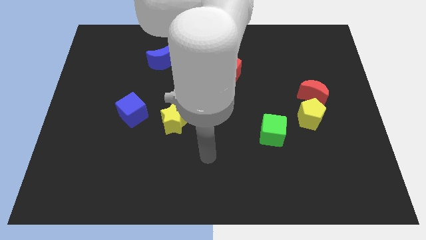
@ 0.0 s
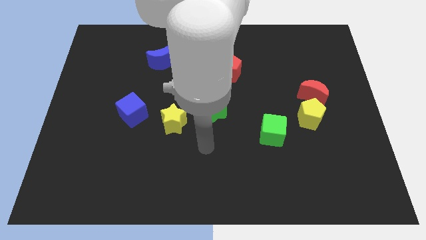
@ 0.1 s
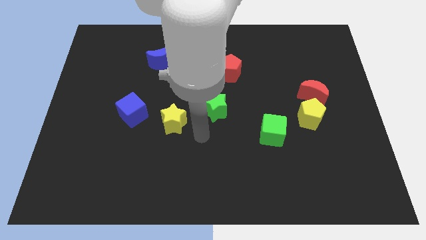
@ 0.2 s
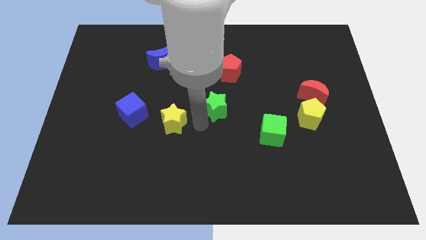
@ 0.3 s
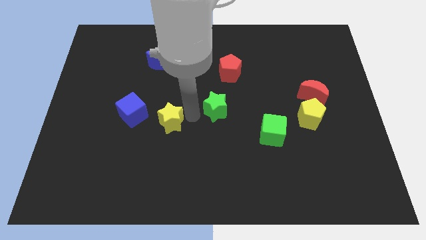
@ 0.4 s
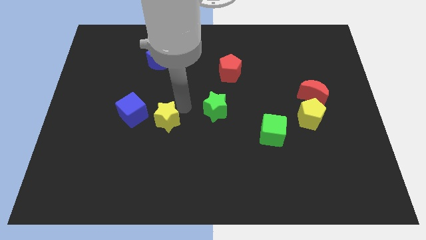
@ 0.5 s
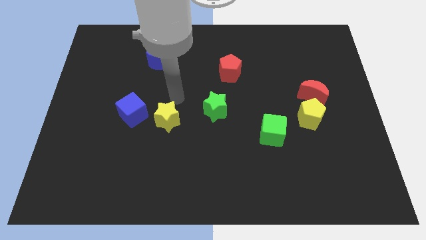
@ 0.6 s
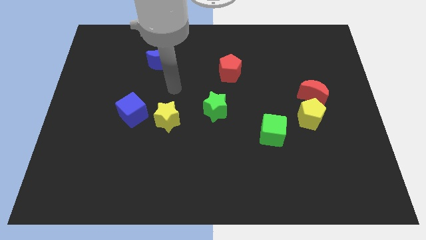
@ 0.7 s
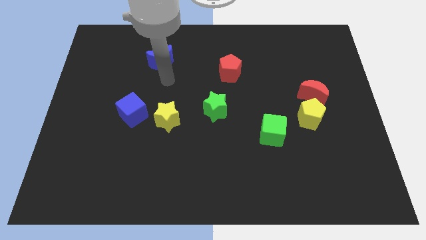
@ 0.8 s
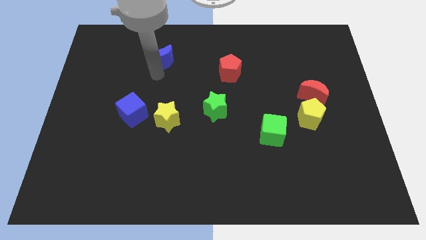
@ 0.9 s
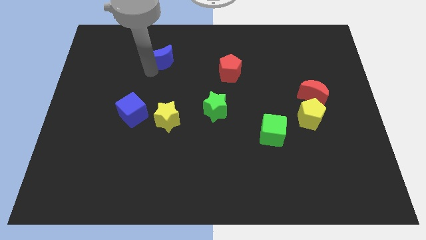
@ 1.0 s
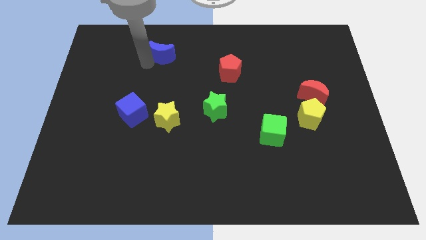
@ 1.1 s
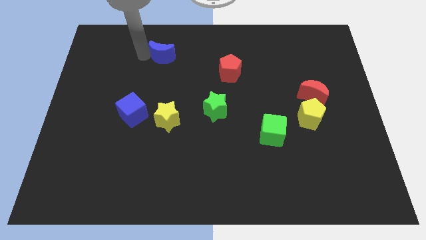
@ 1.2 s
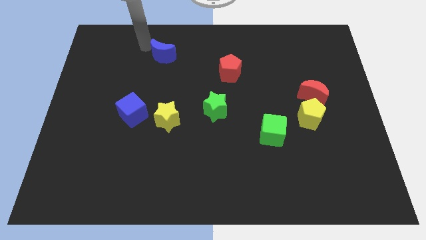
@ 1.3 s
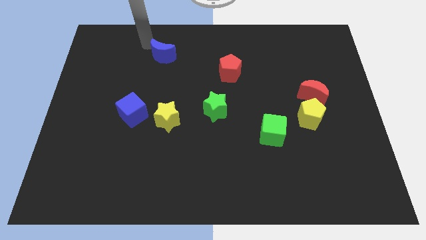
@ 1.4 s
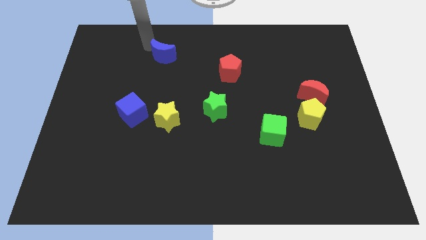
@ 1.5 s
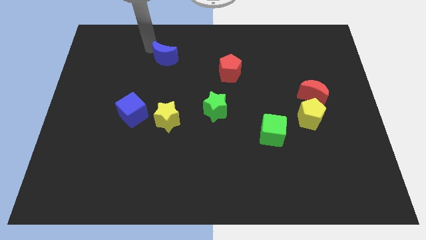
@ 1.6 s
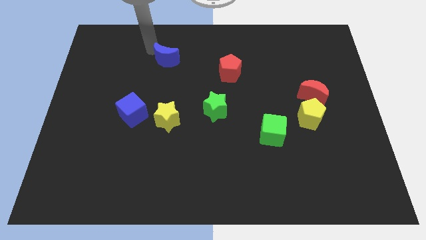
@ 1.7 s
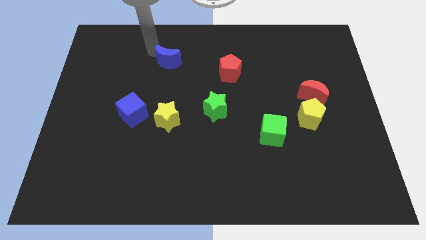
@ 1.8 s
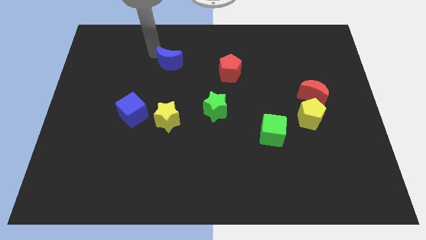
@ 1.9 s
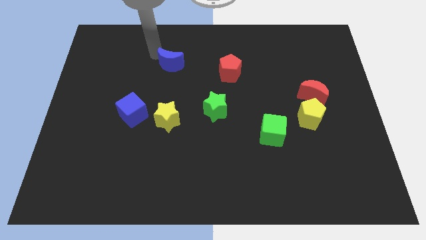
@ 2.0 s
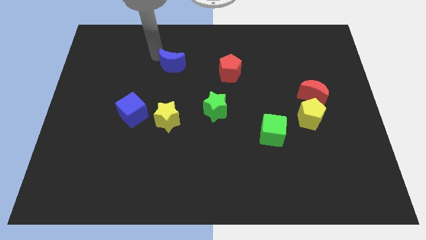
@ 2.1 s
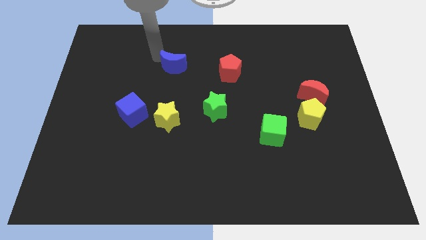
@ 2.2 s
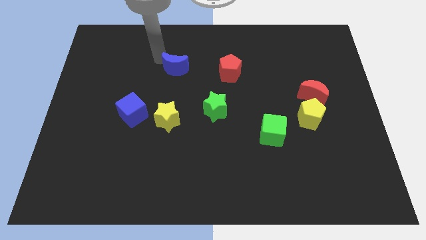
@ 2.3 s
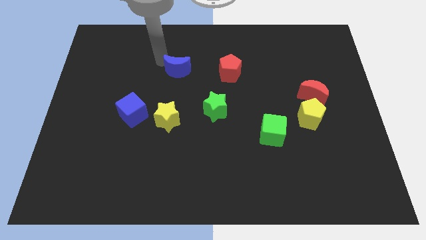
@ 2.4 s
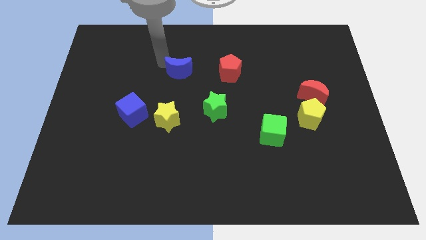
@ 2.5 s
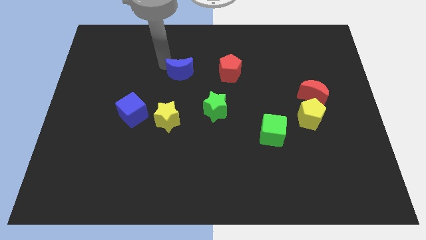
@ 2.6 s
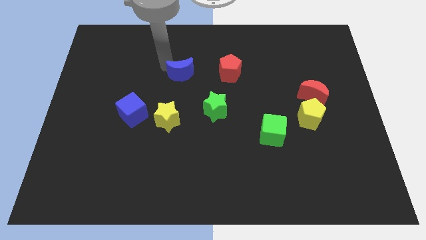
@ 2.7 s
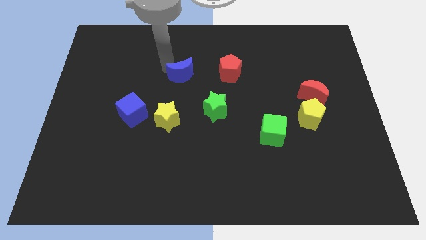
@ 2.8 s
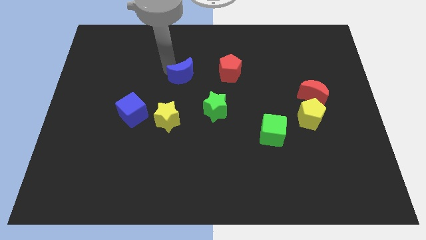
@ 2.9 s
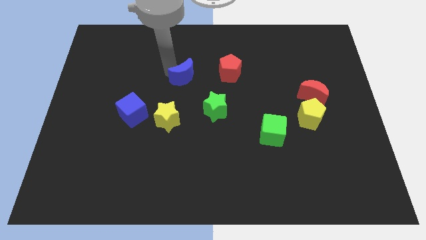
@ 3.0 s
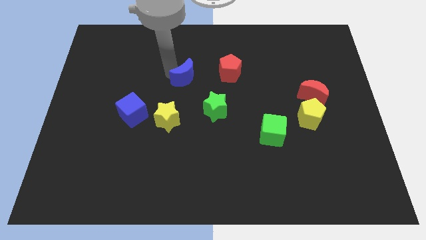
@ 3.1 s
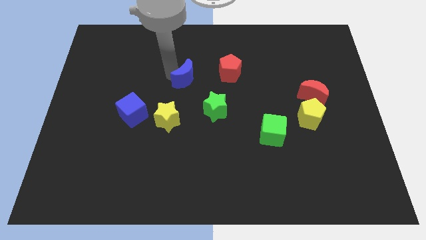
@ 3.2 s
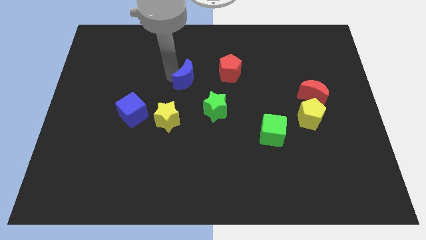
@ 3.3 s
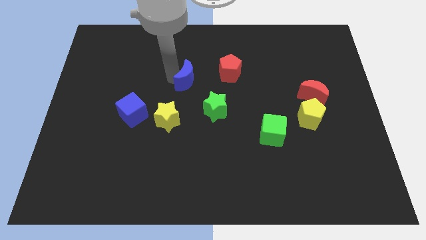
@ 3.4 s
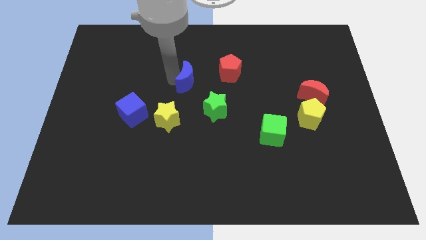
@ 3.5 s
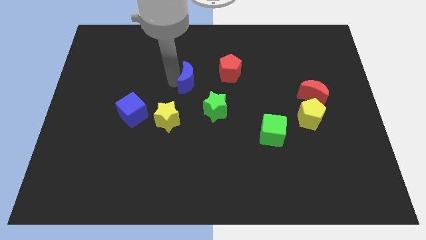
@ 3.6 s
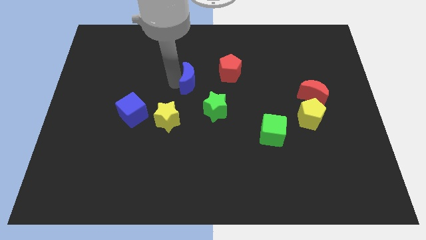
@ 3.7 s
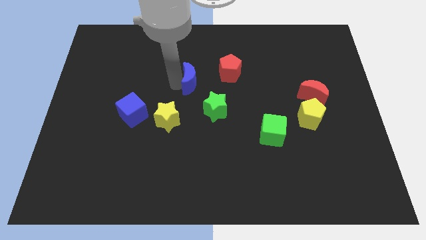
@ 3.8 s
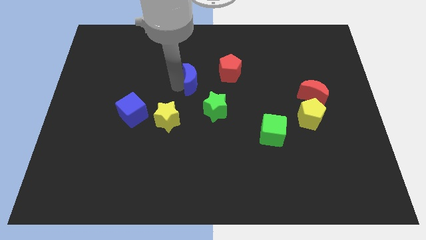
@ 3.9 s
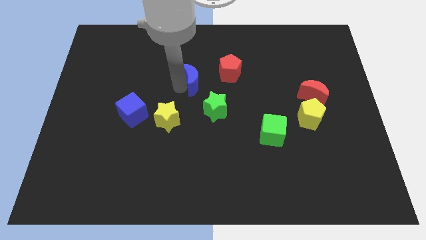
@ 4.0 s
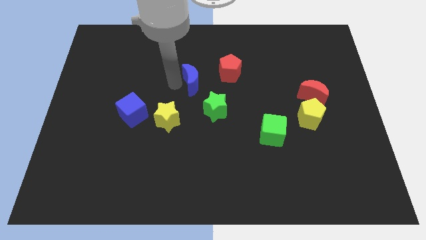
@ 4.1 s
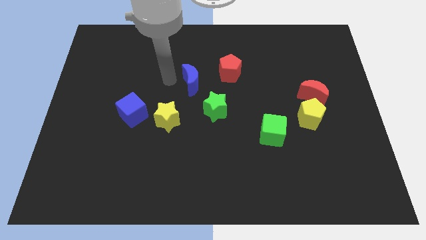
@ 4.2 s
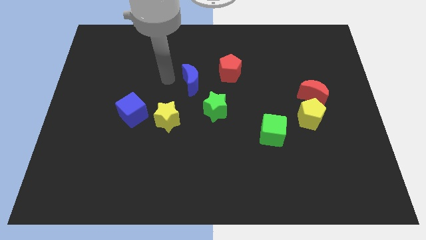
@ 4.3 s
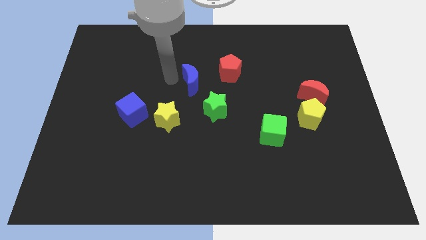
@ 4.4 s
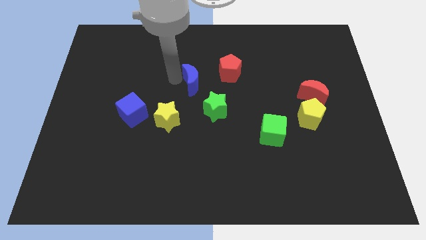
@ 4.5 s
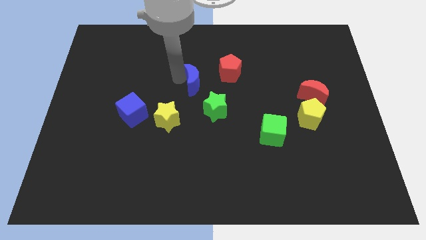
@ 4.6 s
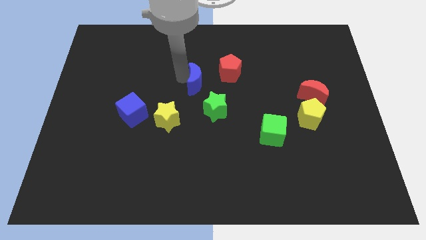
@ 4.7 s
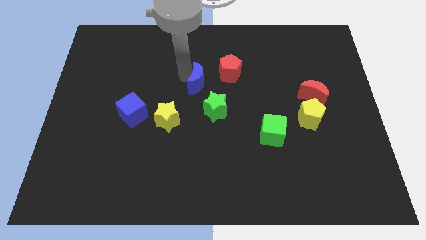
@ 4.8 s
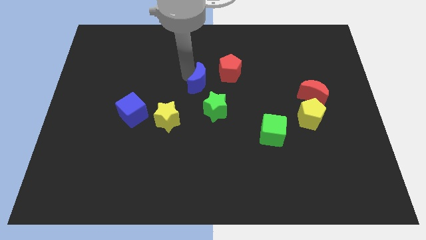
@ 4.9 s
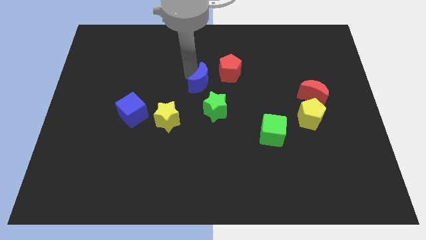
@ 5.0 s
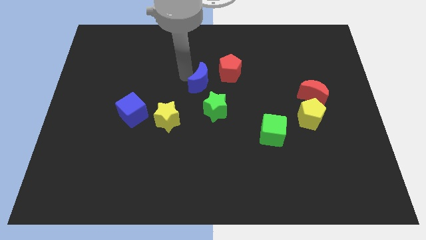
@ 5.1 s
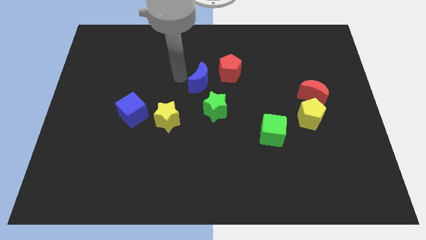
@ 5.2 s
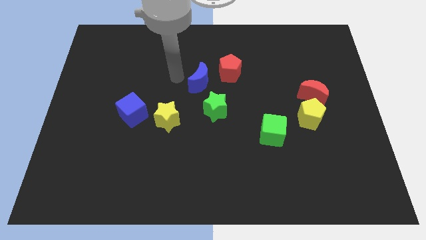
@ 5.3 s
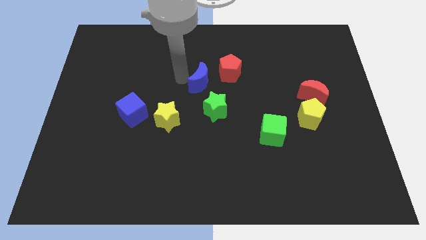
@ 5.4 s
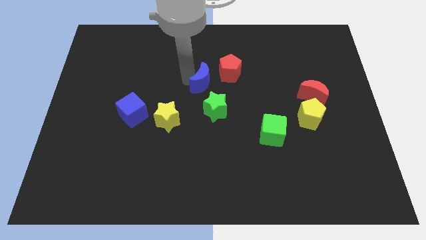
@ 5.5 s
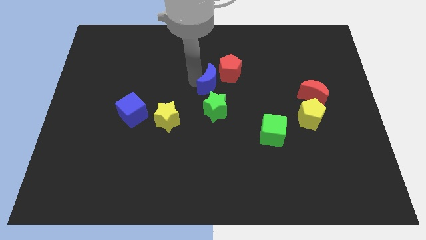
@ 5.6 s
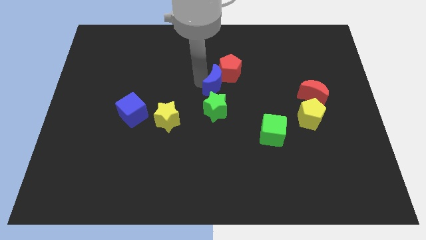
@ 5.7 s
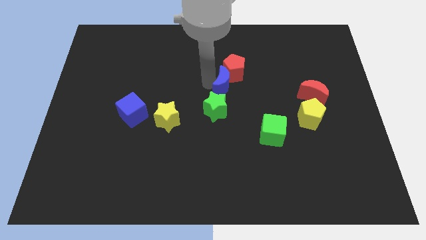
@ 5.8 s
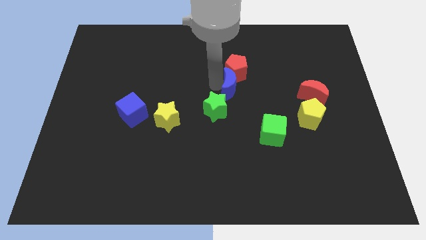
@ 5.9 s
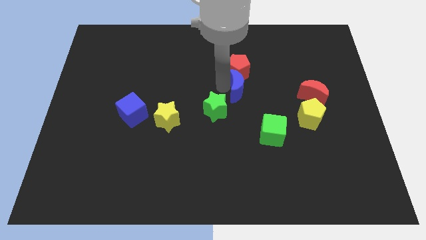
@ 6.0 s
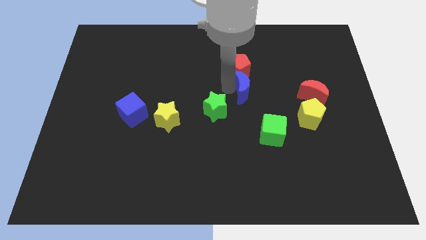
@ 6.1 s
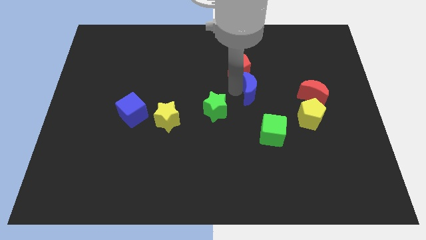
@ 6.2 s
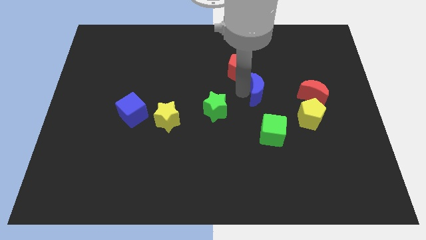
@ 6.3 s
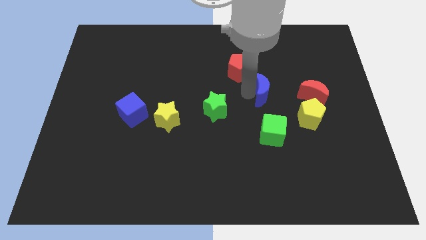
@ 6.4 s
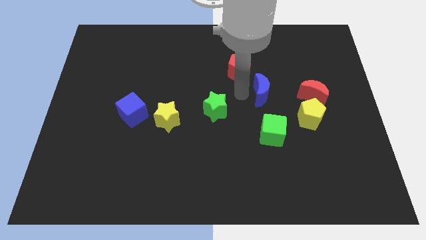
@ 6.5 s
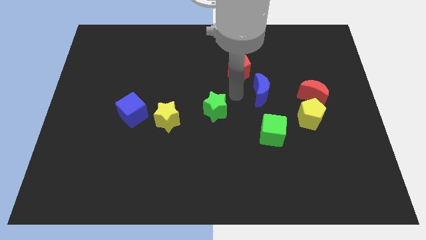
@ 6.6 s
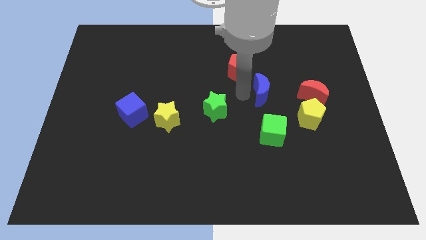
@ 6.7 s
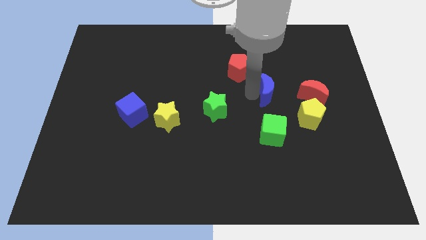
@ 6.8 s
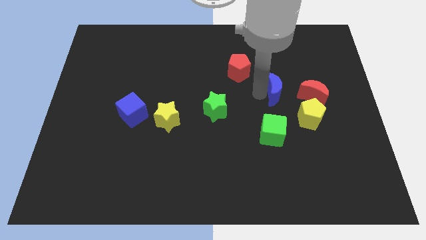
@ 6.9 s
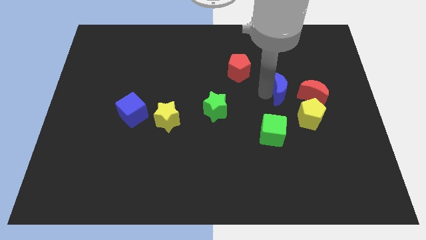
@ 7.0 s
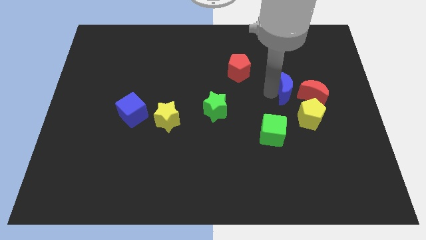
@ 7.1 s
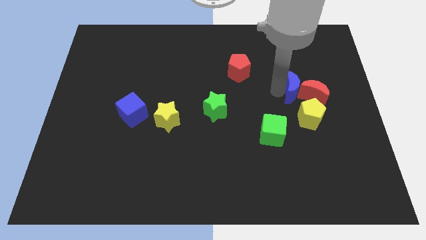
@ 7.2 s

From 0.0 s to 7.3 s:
push the blue moon close to the red moon

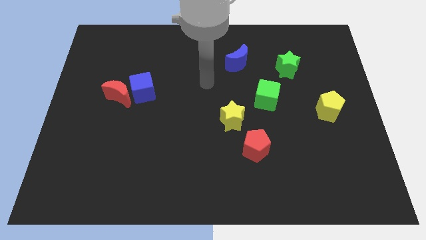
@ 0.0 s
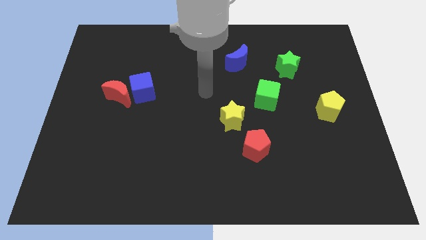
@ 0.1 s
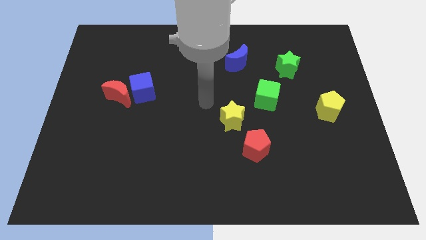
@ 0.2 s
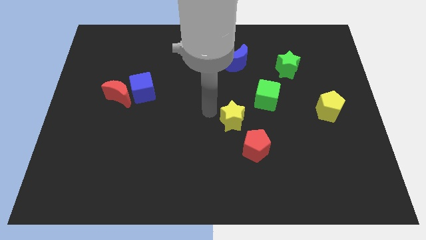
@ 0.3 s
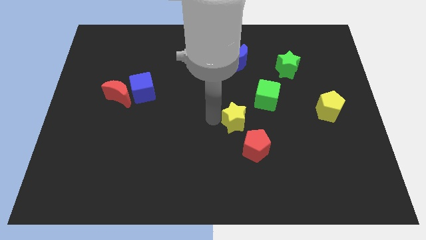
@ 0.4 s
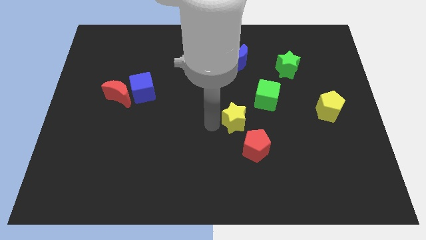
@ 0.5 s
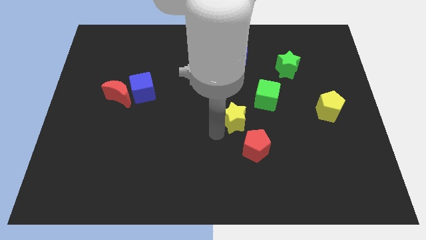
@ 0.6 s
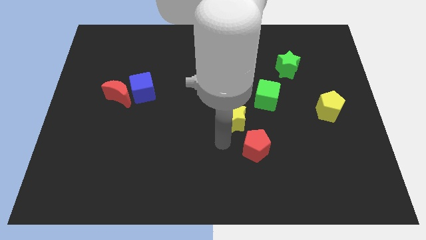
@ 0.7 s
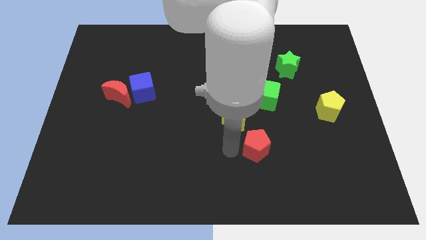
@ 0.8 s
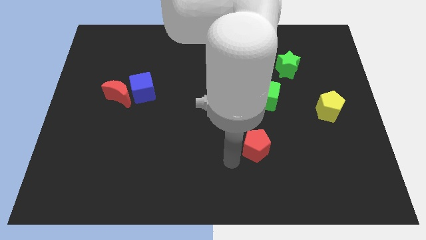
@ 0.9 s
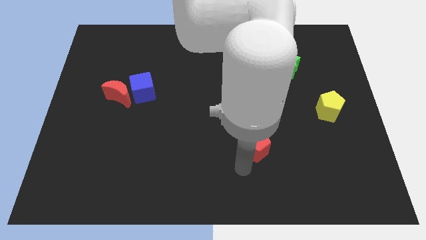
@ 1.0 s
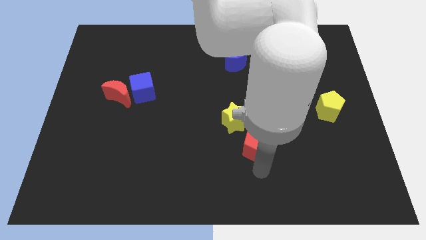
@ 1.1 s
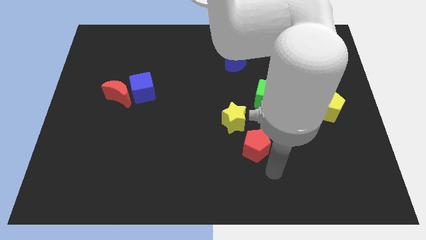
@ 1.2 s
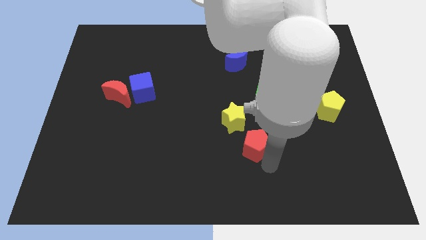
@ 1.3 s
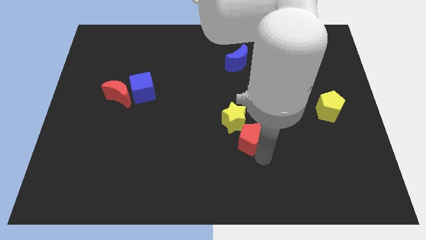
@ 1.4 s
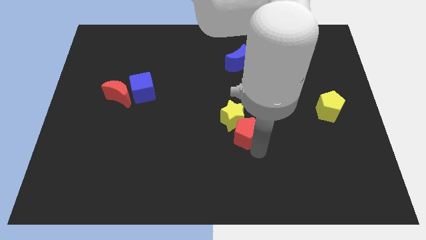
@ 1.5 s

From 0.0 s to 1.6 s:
push the red pentagon to the yellow star
